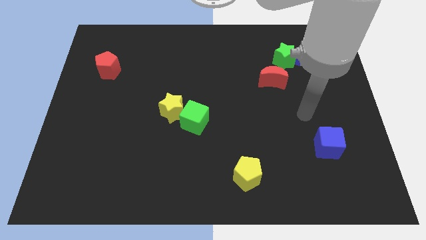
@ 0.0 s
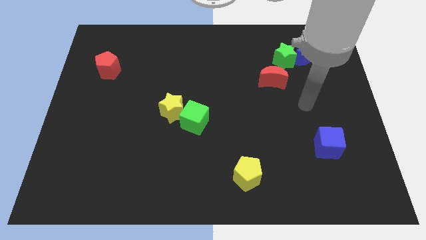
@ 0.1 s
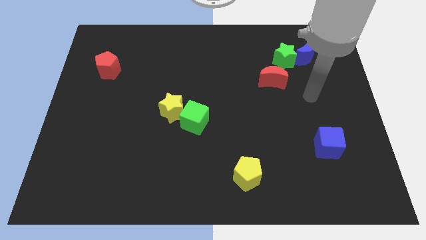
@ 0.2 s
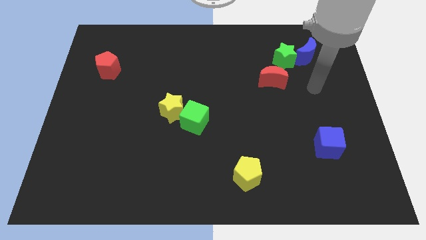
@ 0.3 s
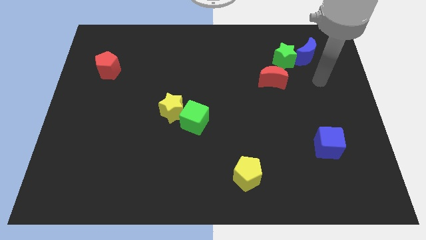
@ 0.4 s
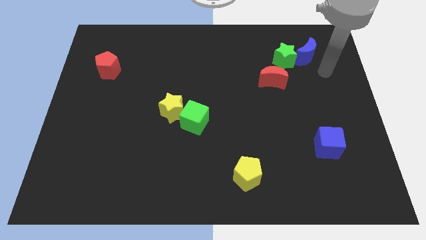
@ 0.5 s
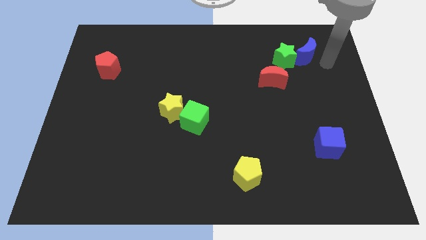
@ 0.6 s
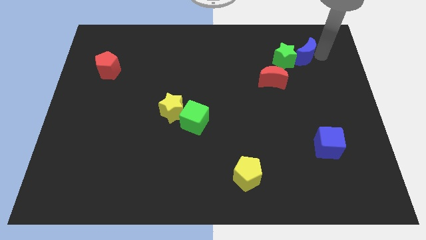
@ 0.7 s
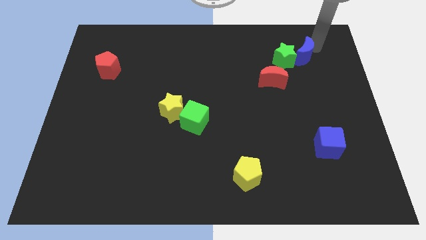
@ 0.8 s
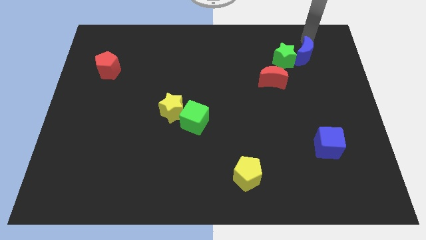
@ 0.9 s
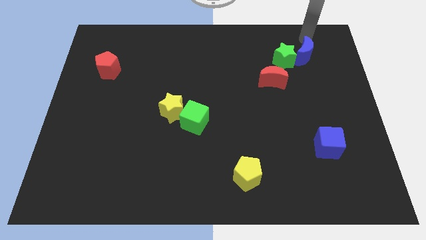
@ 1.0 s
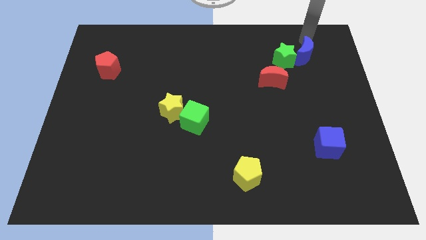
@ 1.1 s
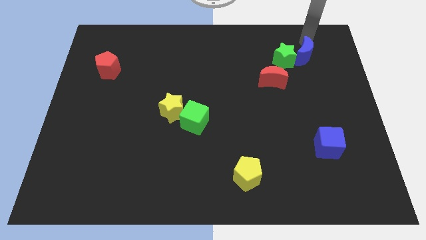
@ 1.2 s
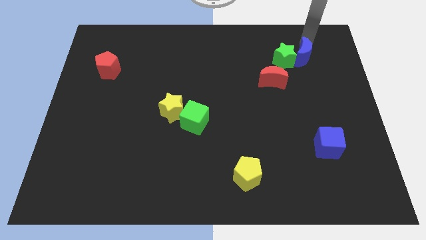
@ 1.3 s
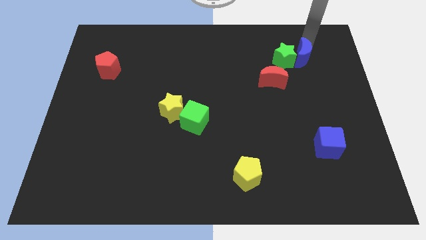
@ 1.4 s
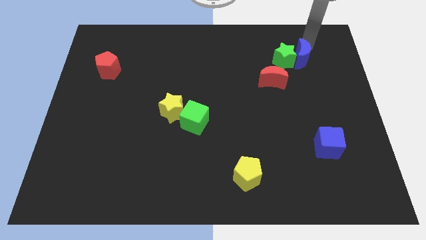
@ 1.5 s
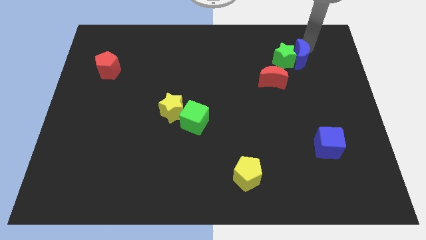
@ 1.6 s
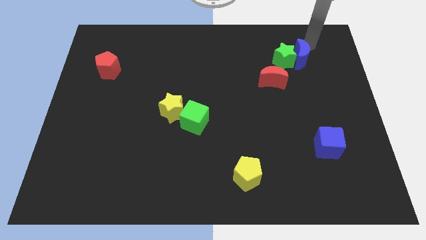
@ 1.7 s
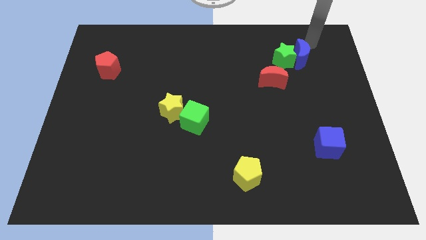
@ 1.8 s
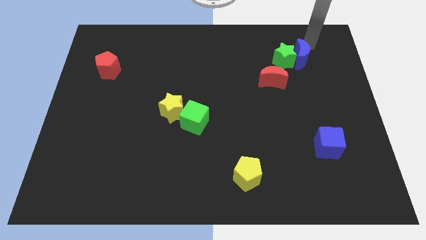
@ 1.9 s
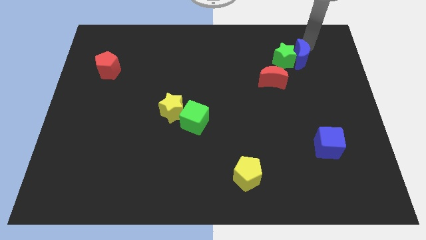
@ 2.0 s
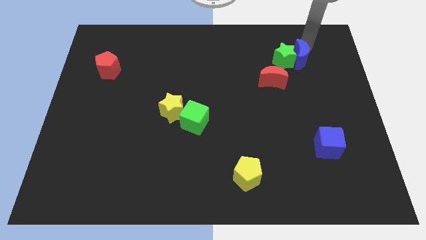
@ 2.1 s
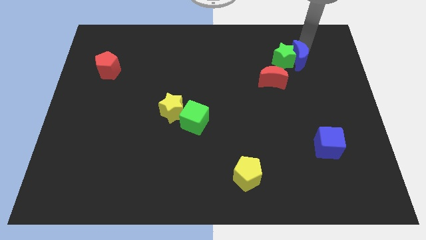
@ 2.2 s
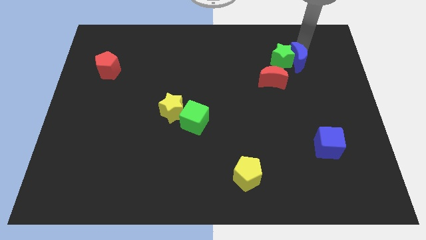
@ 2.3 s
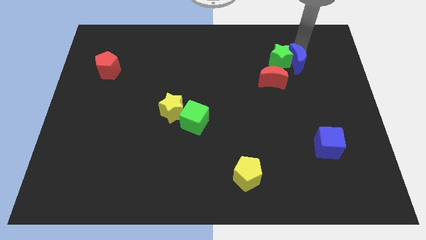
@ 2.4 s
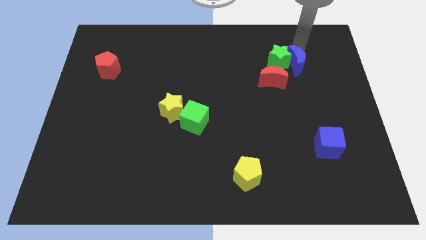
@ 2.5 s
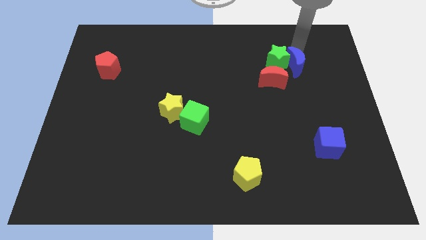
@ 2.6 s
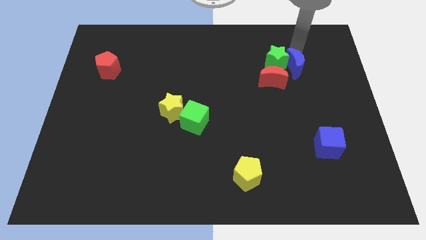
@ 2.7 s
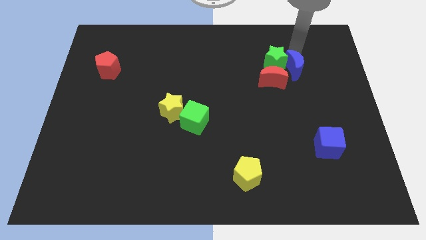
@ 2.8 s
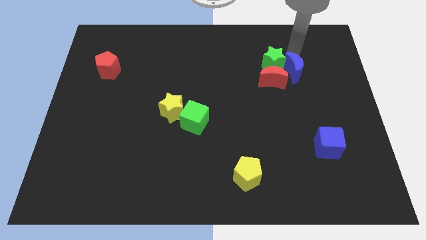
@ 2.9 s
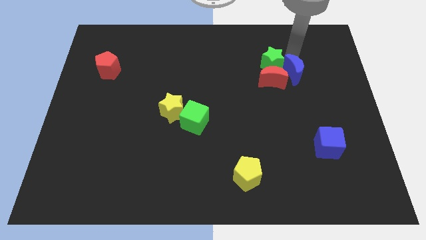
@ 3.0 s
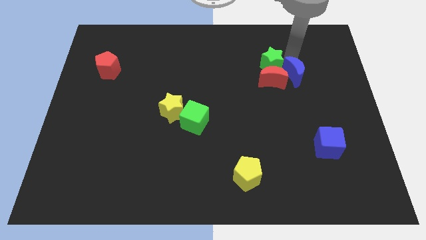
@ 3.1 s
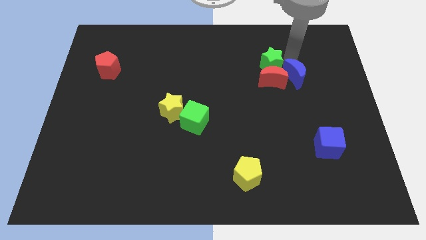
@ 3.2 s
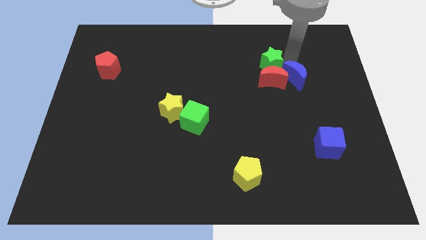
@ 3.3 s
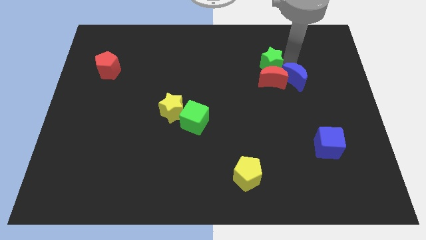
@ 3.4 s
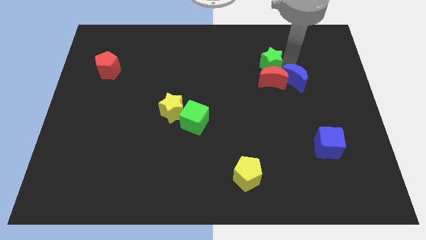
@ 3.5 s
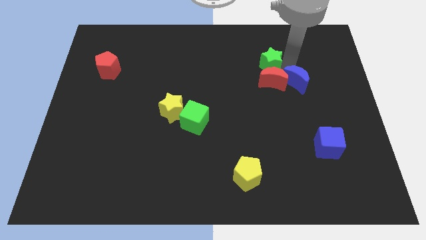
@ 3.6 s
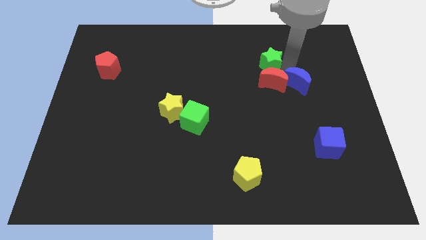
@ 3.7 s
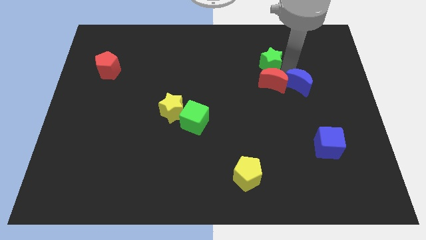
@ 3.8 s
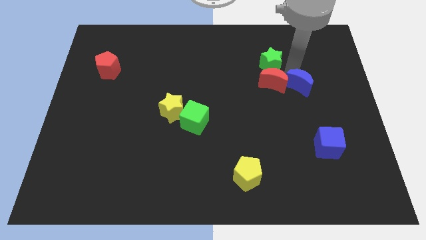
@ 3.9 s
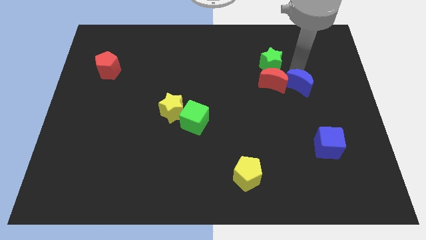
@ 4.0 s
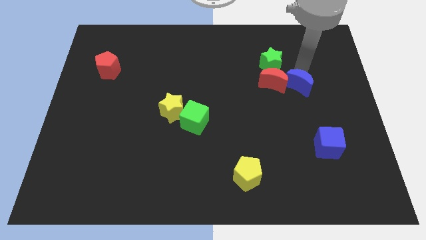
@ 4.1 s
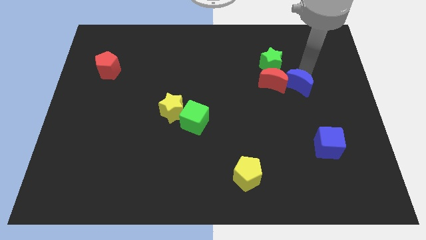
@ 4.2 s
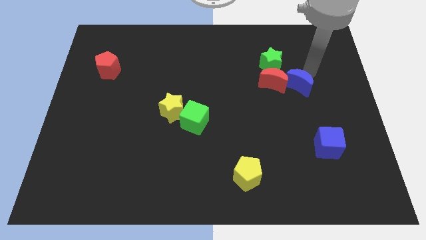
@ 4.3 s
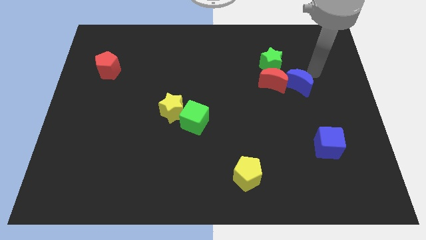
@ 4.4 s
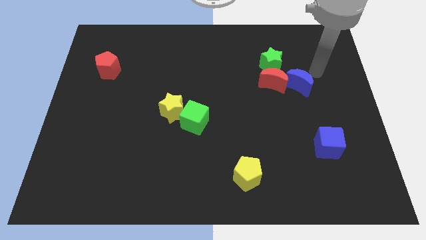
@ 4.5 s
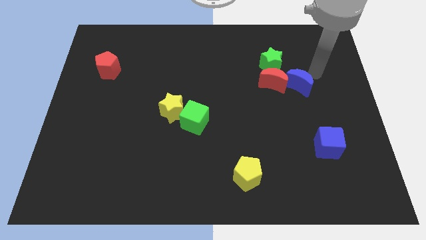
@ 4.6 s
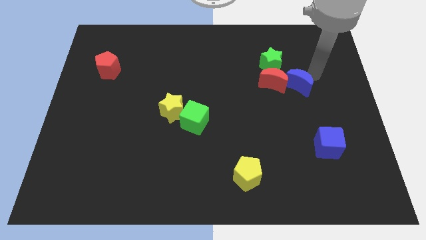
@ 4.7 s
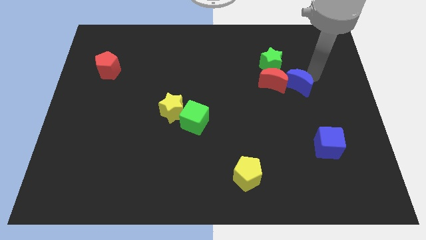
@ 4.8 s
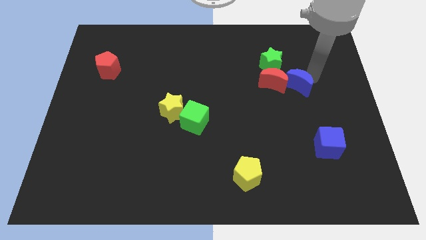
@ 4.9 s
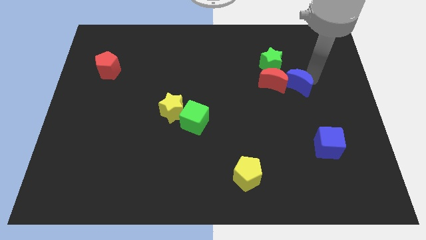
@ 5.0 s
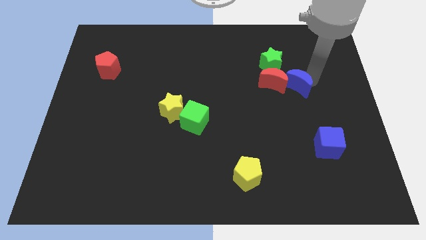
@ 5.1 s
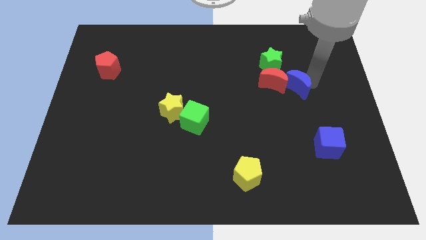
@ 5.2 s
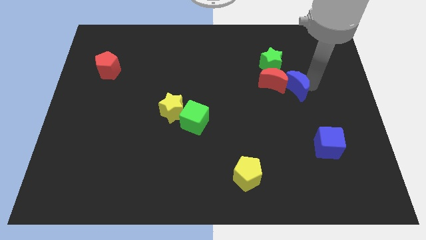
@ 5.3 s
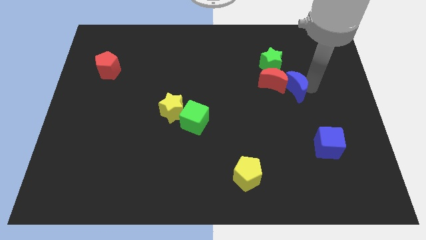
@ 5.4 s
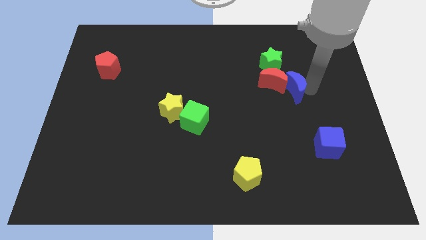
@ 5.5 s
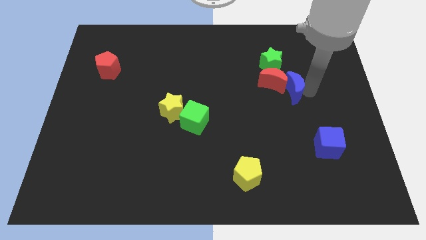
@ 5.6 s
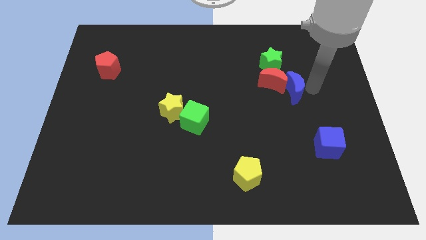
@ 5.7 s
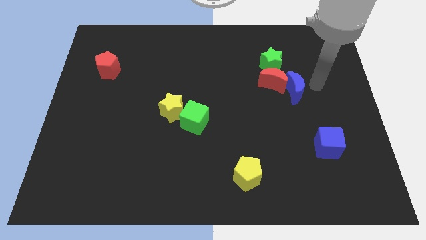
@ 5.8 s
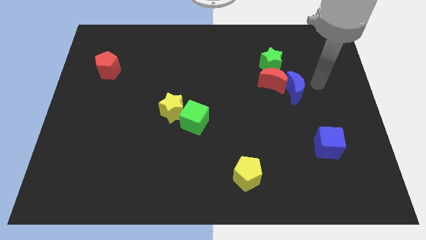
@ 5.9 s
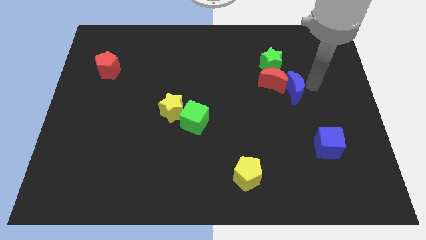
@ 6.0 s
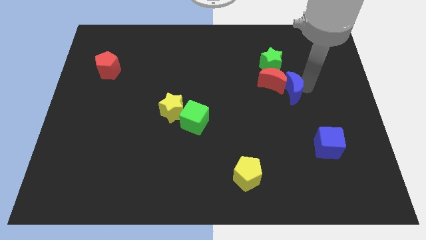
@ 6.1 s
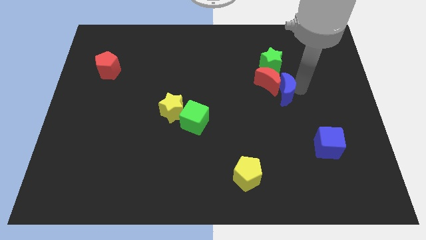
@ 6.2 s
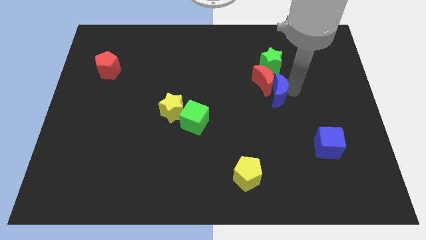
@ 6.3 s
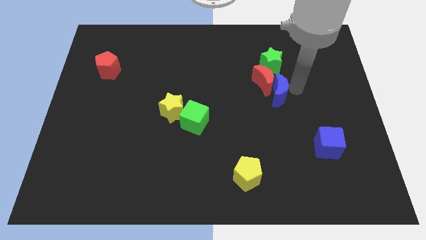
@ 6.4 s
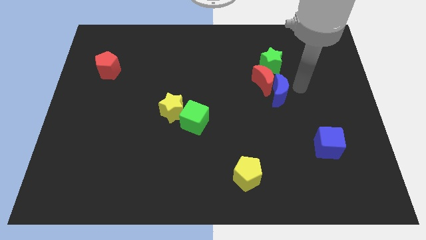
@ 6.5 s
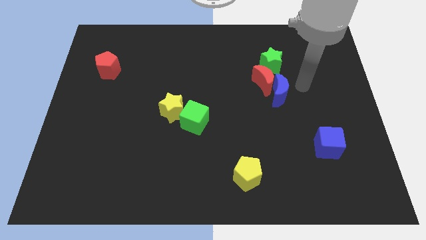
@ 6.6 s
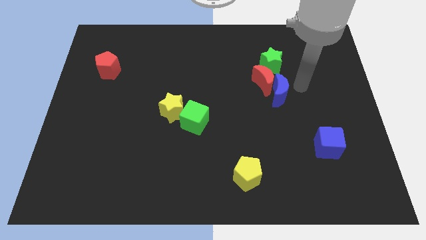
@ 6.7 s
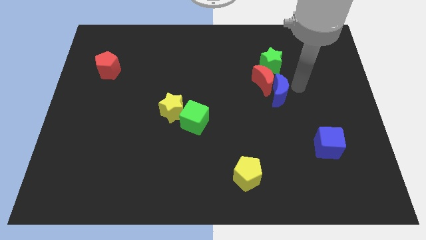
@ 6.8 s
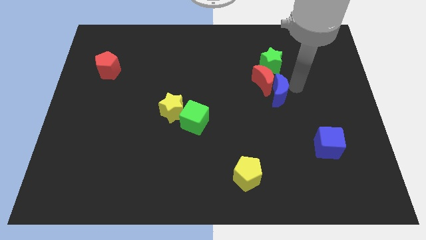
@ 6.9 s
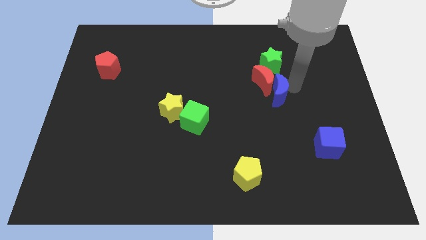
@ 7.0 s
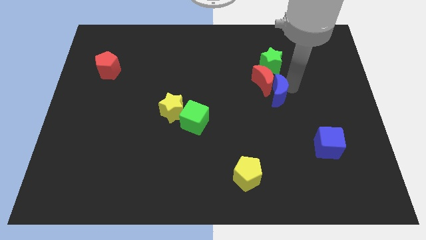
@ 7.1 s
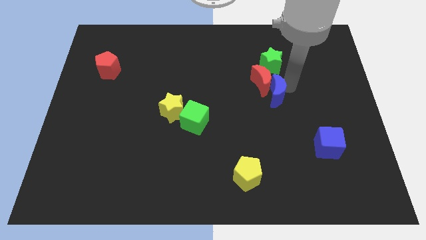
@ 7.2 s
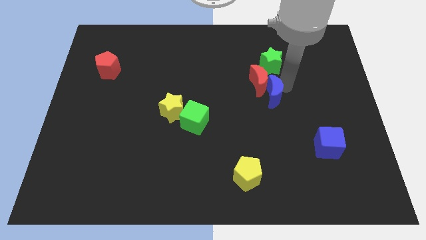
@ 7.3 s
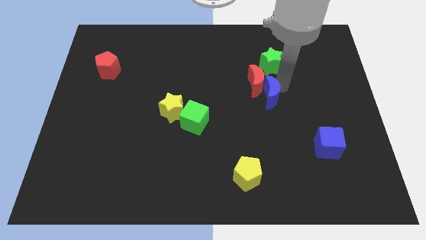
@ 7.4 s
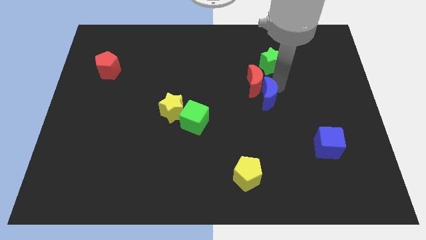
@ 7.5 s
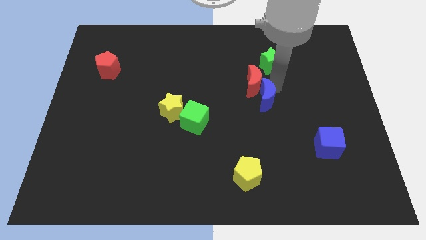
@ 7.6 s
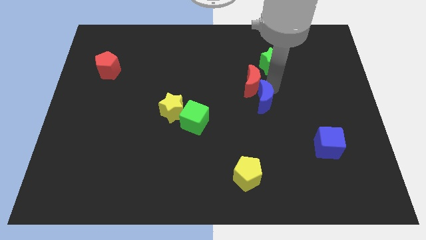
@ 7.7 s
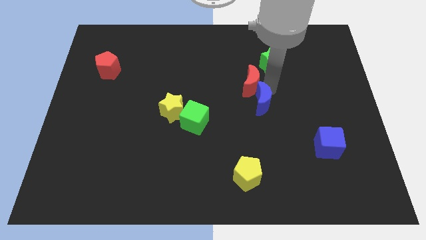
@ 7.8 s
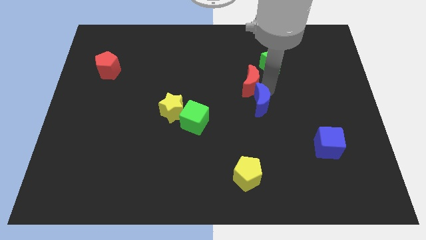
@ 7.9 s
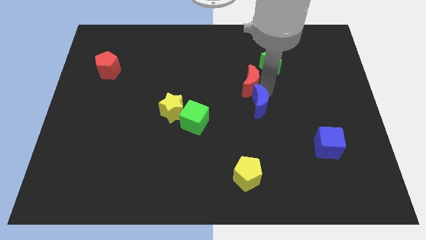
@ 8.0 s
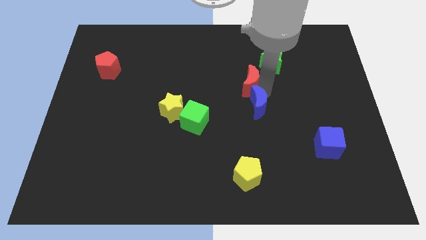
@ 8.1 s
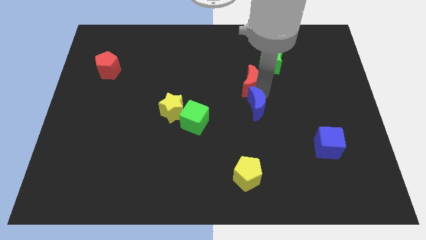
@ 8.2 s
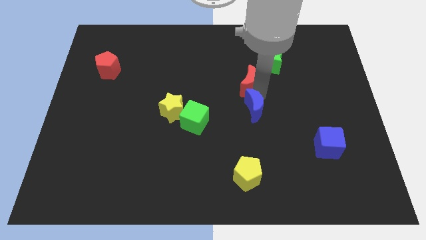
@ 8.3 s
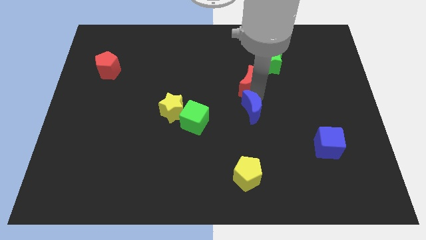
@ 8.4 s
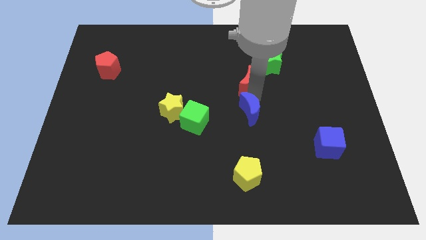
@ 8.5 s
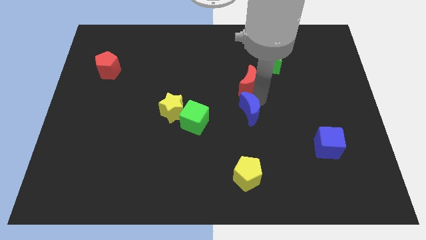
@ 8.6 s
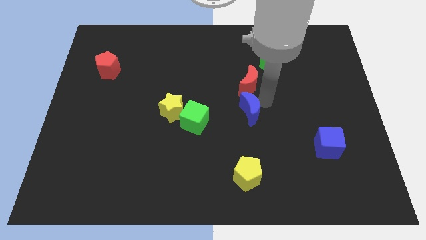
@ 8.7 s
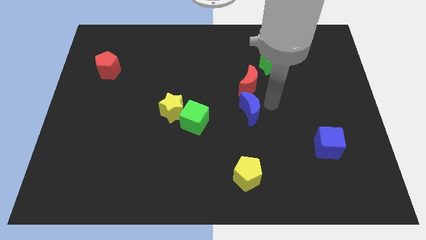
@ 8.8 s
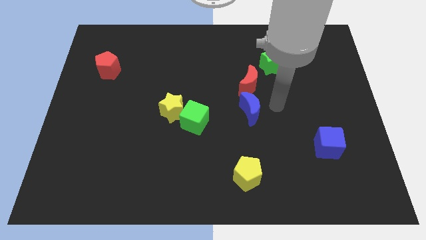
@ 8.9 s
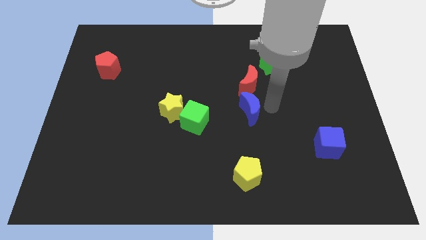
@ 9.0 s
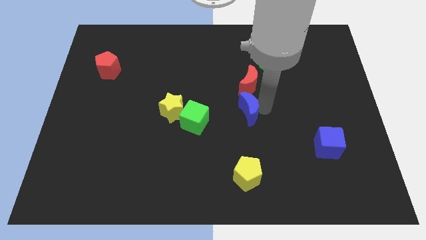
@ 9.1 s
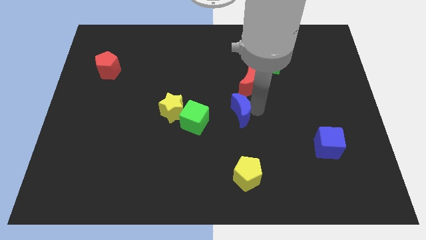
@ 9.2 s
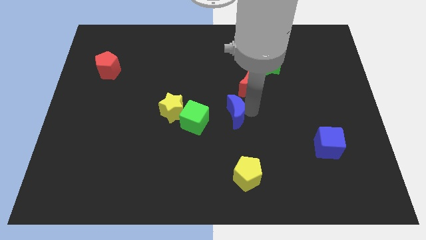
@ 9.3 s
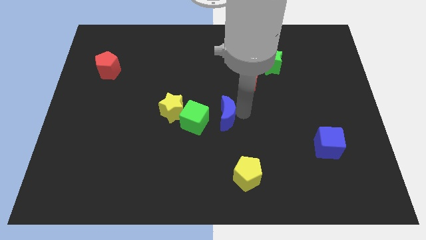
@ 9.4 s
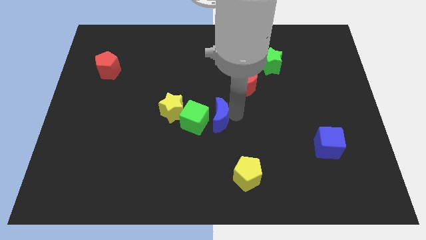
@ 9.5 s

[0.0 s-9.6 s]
slide the blue moon next to the green cube
